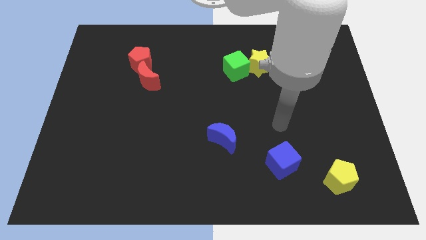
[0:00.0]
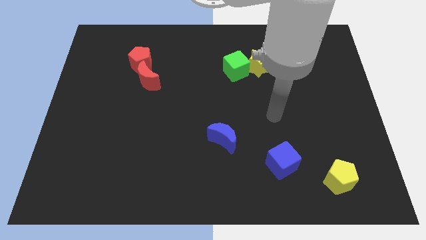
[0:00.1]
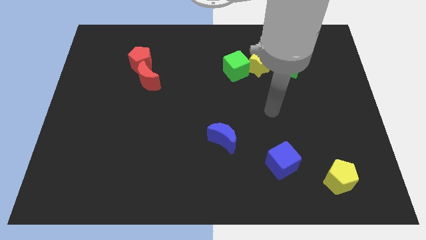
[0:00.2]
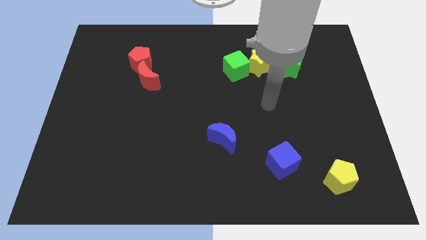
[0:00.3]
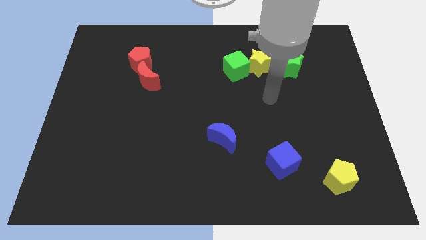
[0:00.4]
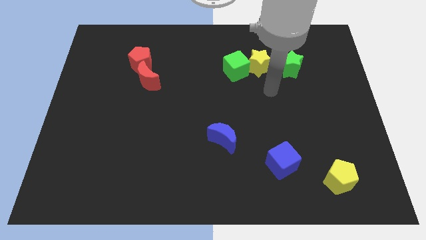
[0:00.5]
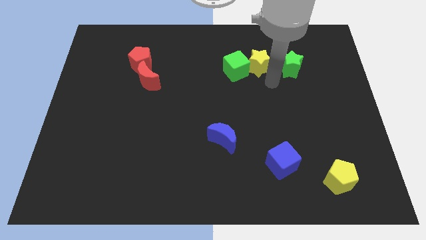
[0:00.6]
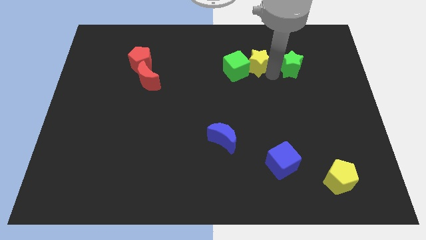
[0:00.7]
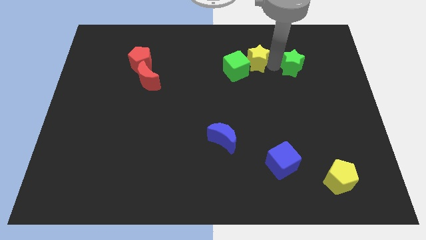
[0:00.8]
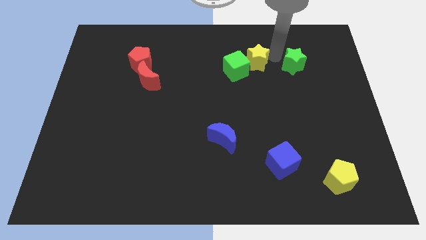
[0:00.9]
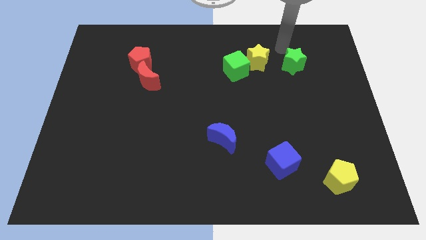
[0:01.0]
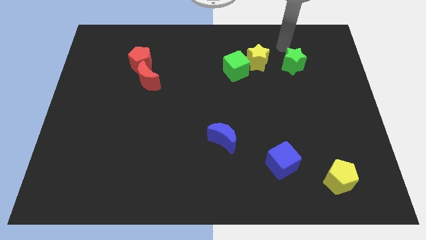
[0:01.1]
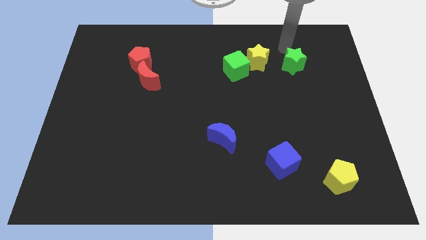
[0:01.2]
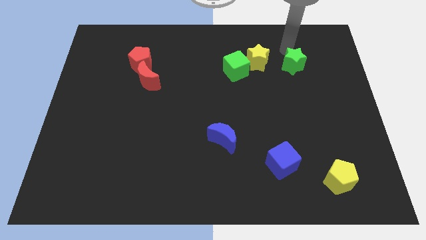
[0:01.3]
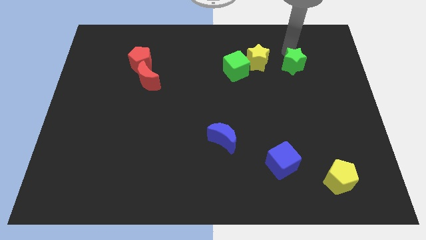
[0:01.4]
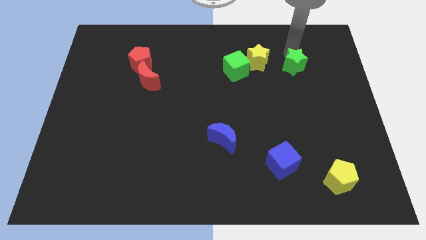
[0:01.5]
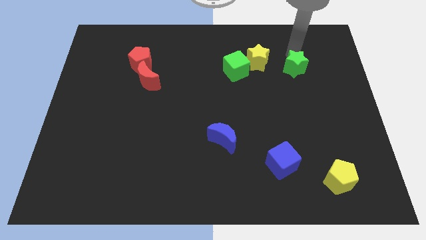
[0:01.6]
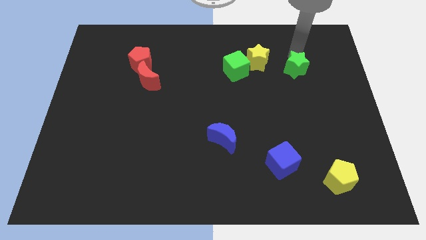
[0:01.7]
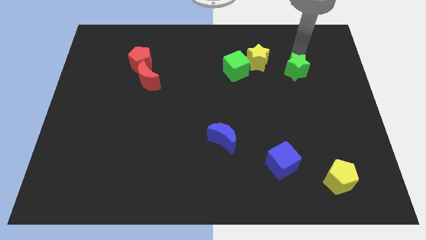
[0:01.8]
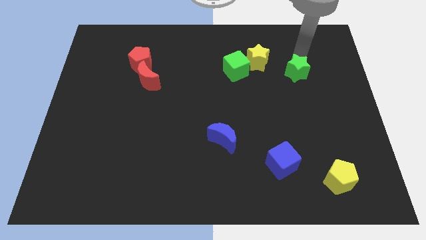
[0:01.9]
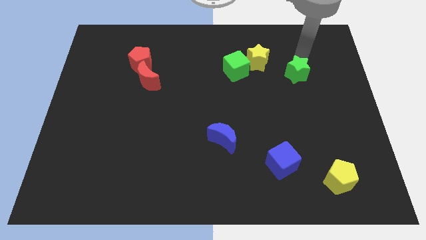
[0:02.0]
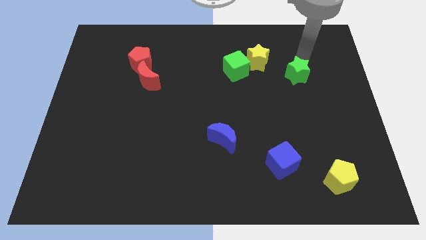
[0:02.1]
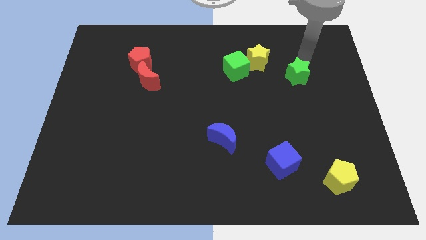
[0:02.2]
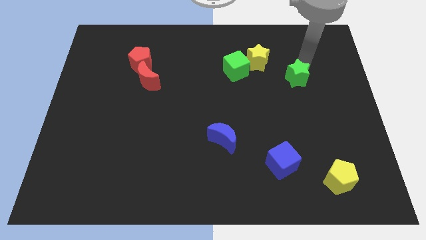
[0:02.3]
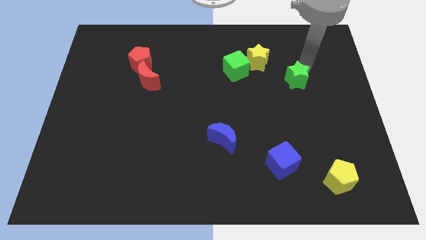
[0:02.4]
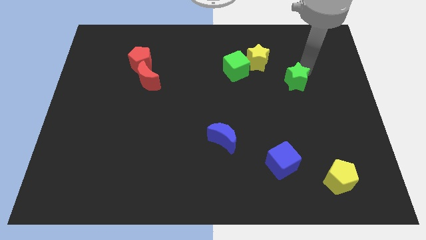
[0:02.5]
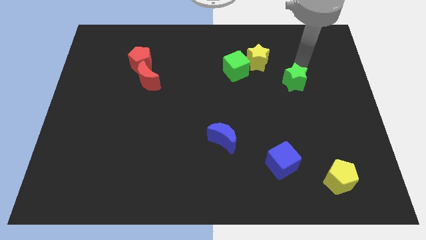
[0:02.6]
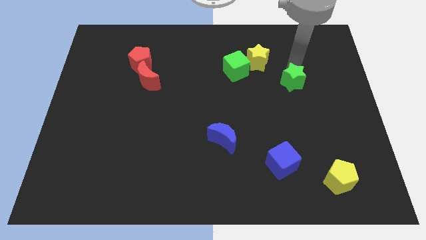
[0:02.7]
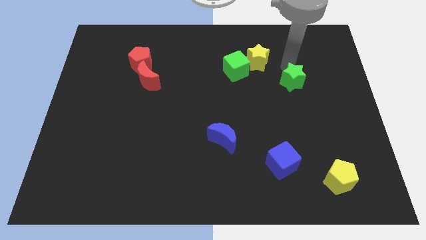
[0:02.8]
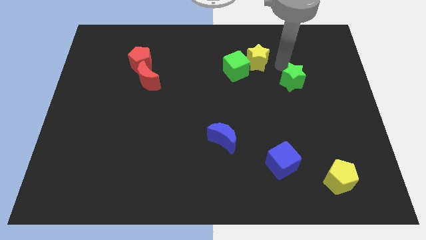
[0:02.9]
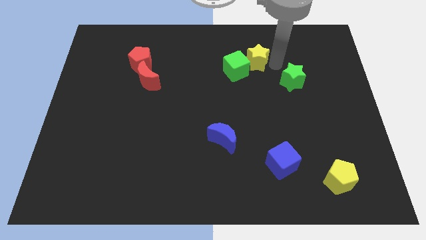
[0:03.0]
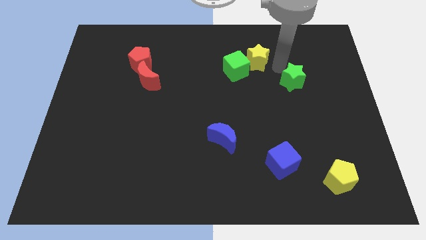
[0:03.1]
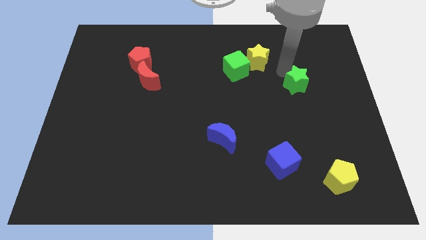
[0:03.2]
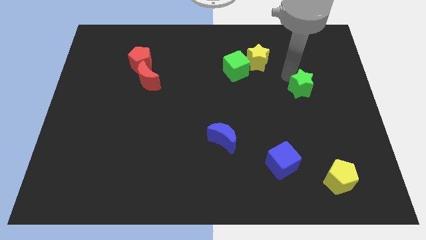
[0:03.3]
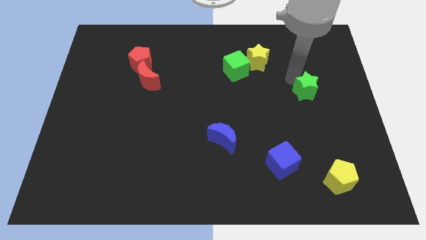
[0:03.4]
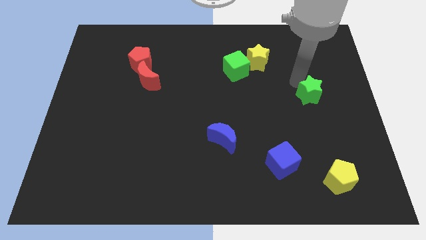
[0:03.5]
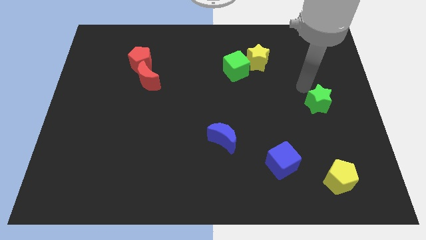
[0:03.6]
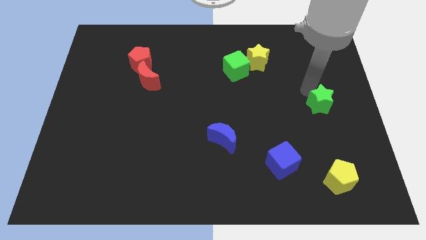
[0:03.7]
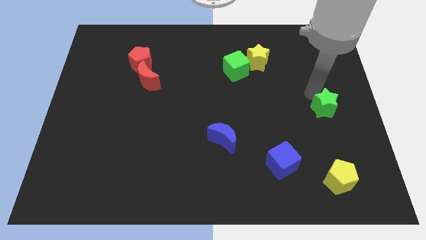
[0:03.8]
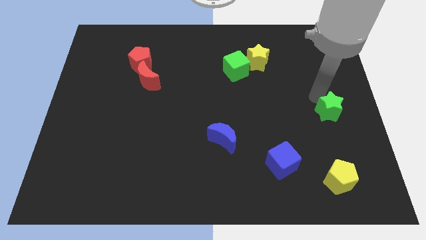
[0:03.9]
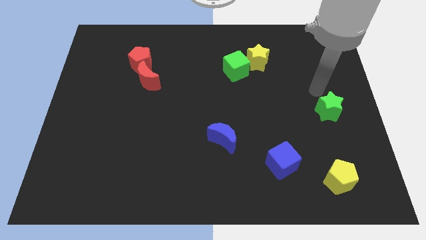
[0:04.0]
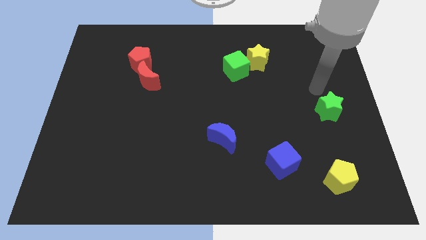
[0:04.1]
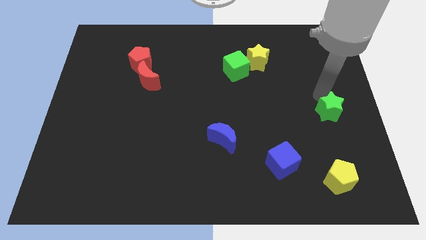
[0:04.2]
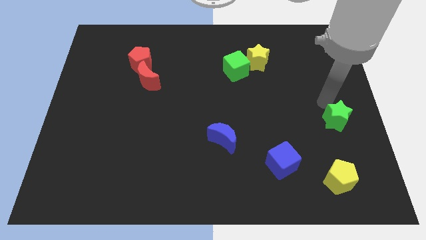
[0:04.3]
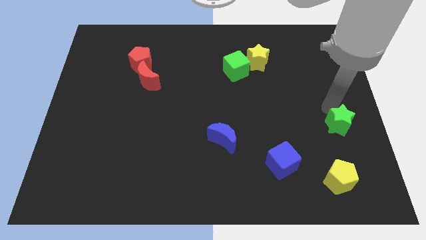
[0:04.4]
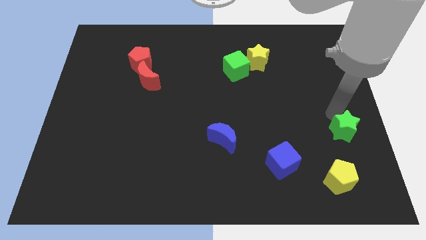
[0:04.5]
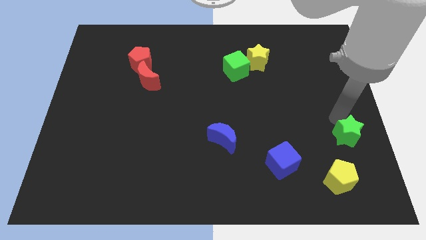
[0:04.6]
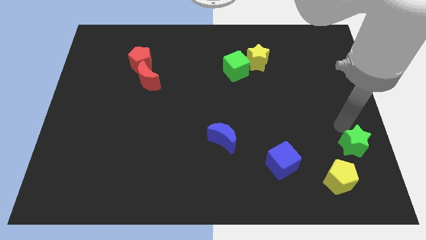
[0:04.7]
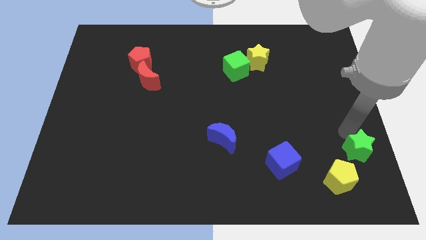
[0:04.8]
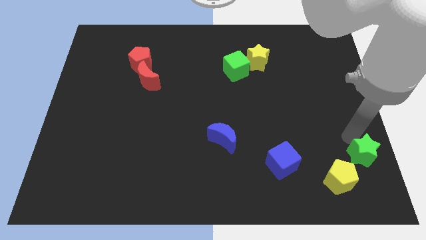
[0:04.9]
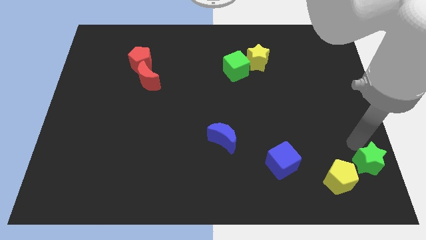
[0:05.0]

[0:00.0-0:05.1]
slide the green star to the bottom right of the board
